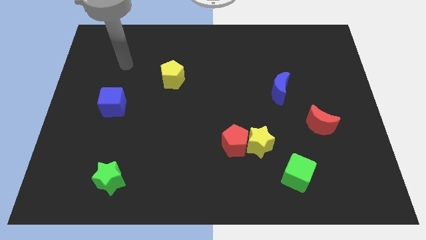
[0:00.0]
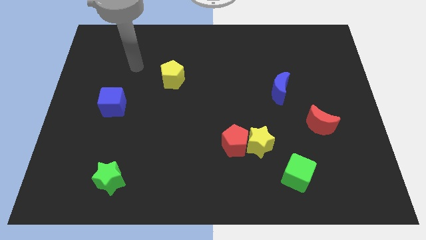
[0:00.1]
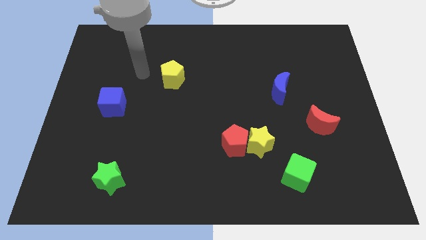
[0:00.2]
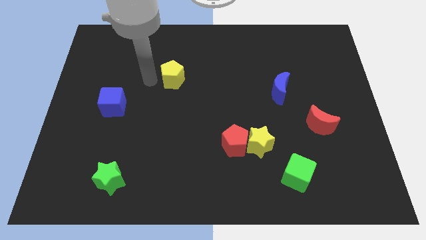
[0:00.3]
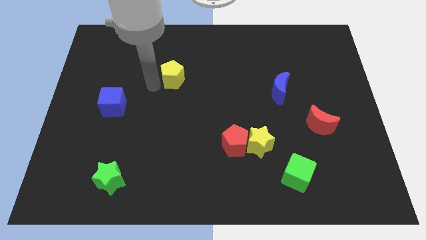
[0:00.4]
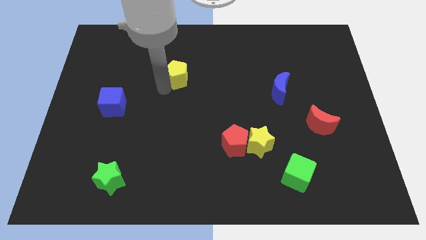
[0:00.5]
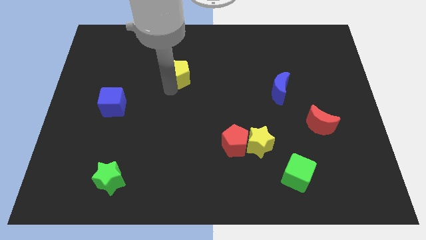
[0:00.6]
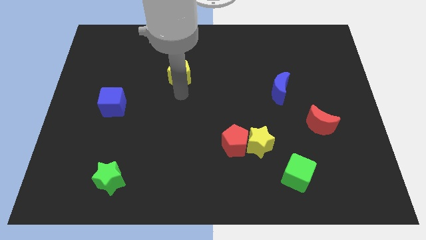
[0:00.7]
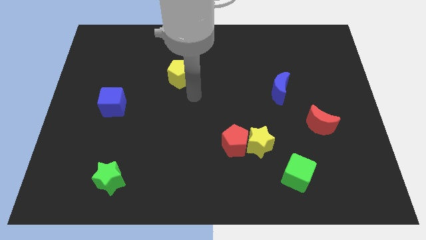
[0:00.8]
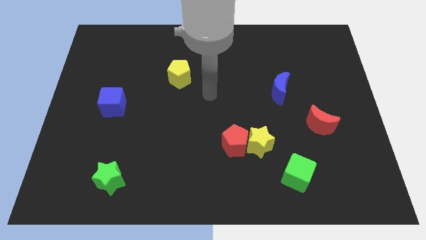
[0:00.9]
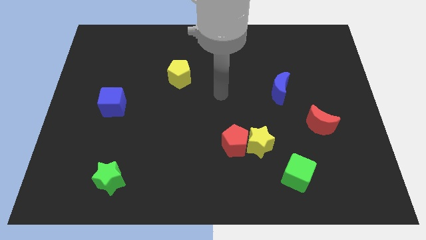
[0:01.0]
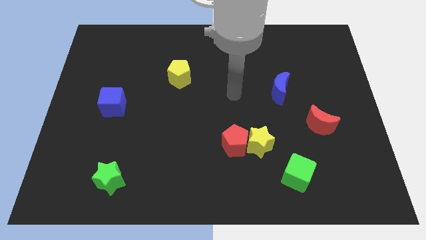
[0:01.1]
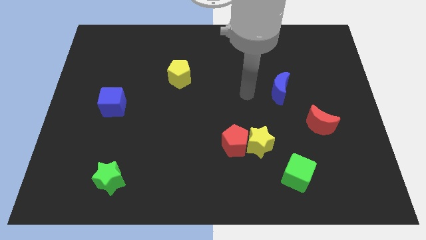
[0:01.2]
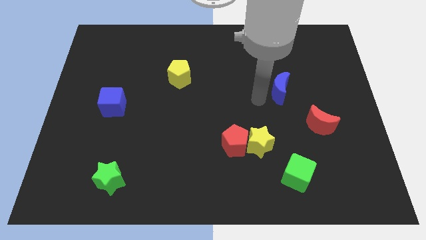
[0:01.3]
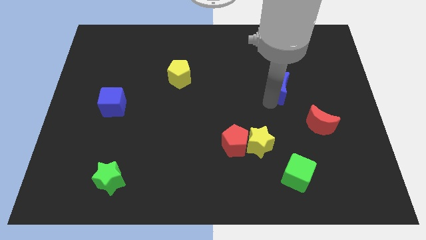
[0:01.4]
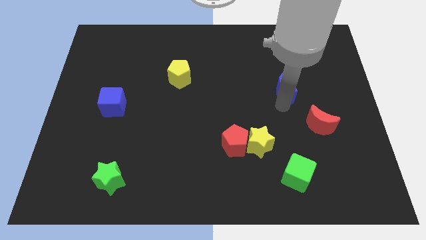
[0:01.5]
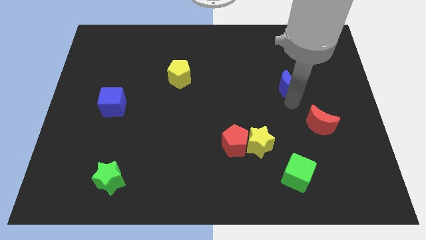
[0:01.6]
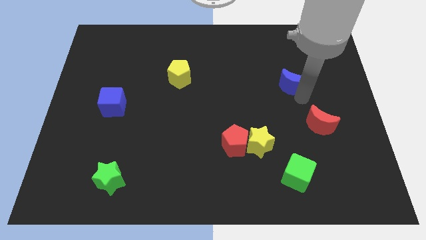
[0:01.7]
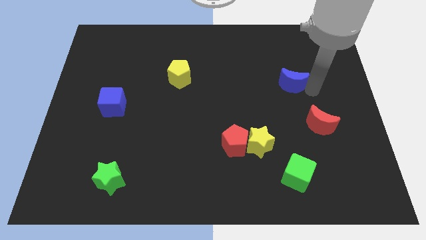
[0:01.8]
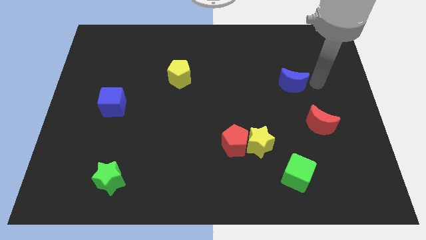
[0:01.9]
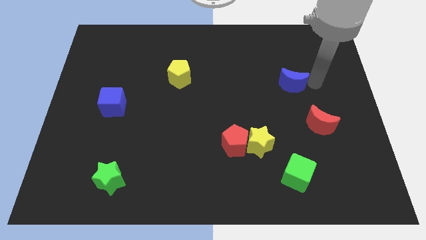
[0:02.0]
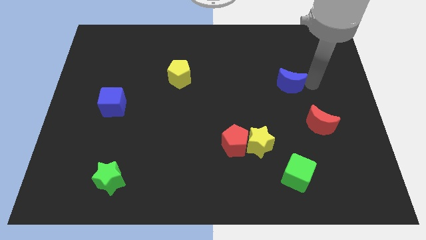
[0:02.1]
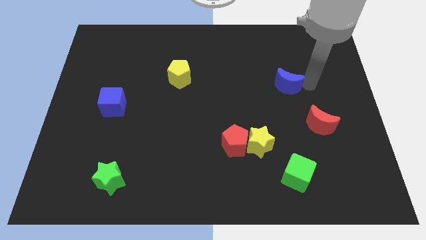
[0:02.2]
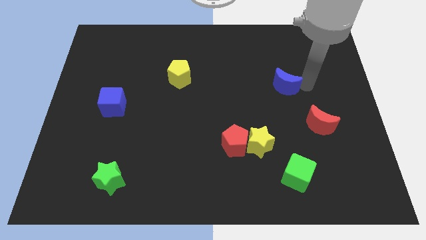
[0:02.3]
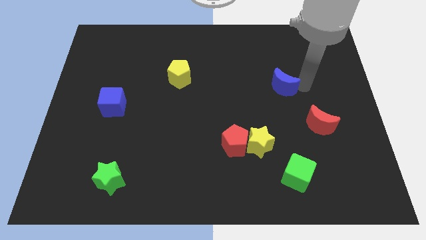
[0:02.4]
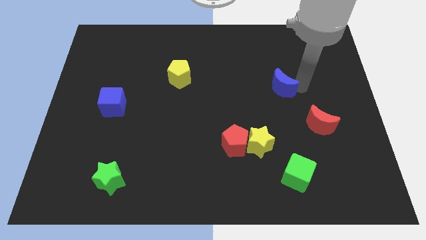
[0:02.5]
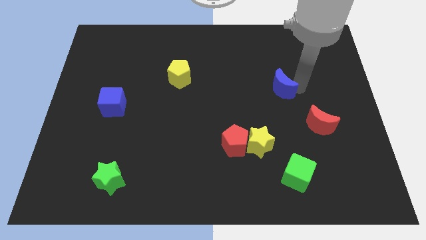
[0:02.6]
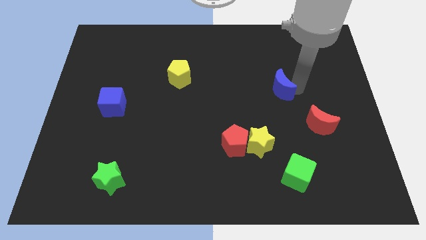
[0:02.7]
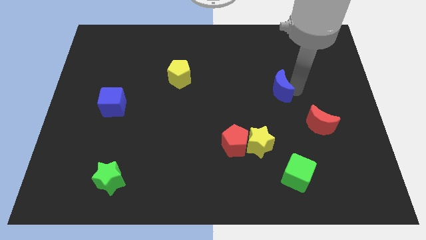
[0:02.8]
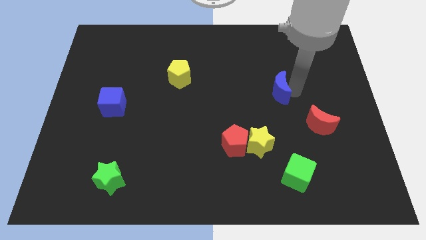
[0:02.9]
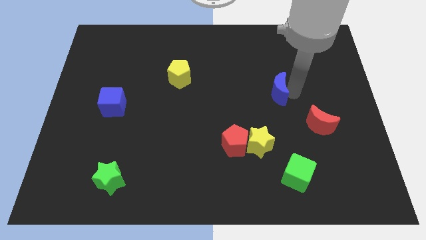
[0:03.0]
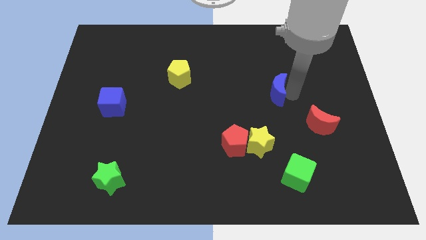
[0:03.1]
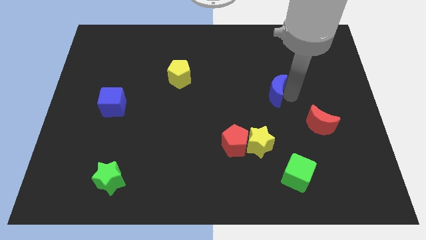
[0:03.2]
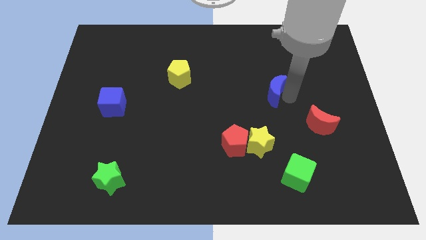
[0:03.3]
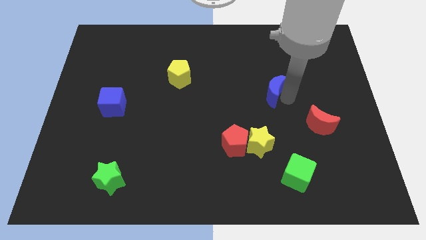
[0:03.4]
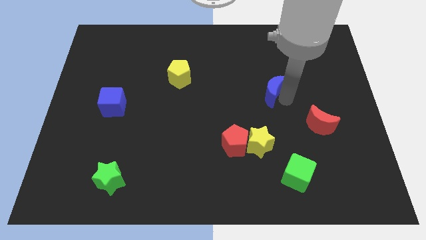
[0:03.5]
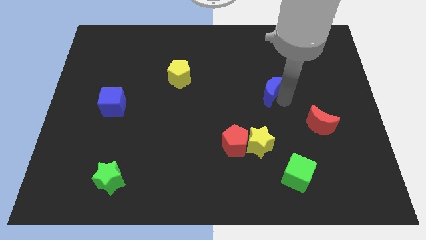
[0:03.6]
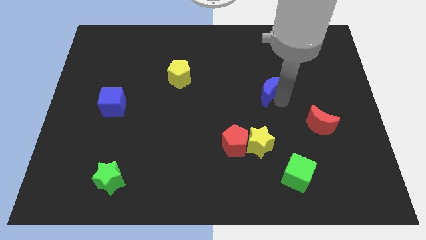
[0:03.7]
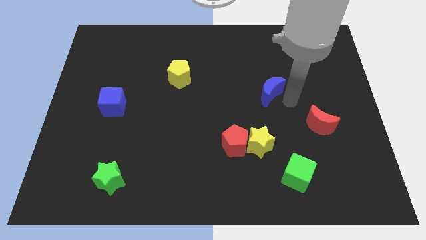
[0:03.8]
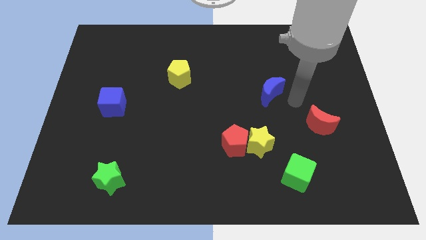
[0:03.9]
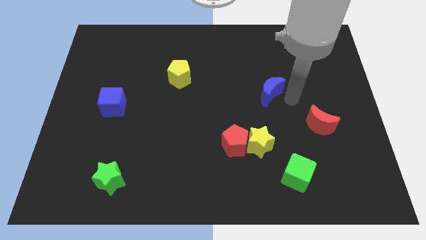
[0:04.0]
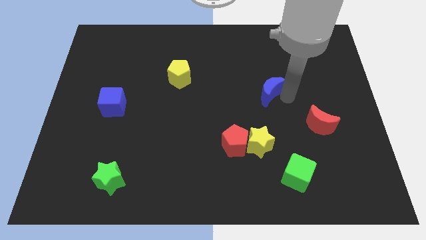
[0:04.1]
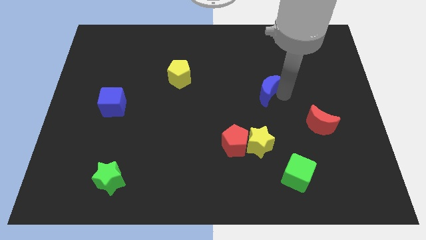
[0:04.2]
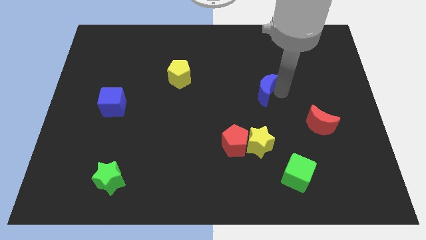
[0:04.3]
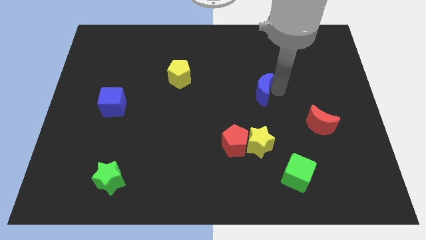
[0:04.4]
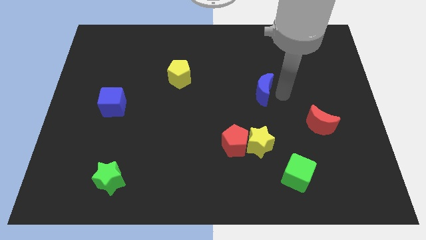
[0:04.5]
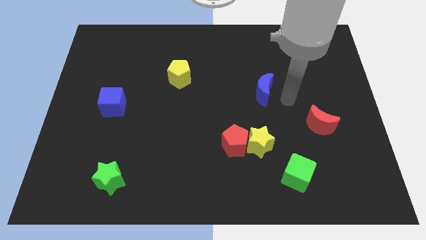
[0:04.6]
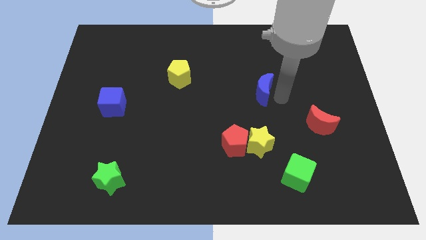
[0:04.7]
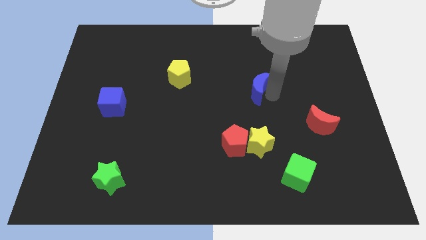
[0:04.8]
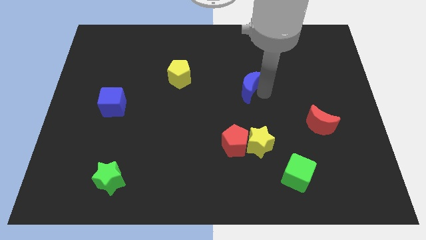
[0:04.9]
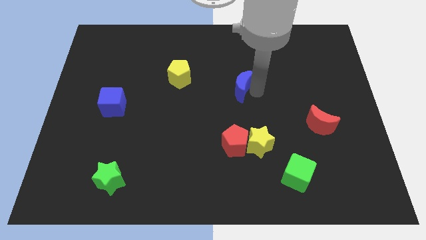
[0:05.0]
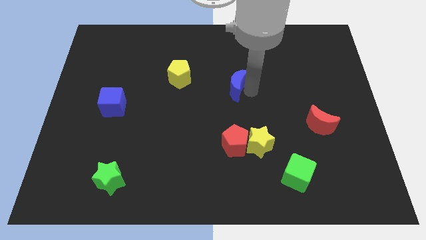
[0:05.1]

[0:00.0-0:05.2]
move the blue moon right of the yellow pentagon

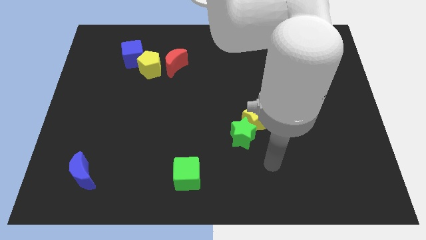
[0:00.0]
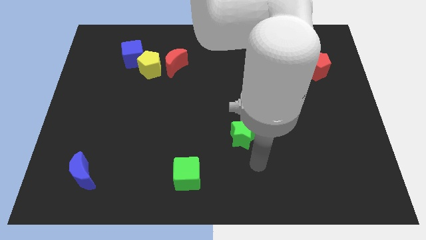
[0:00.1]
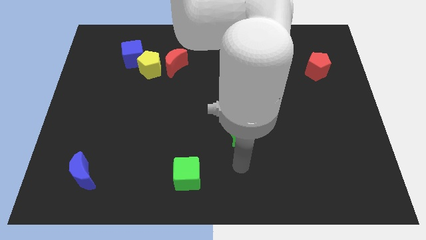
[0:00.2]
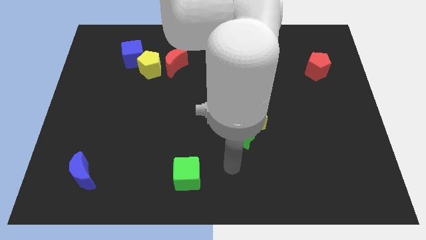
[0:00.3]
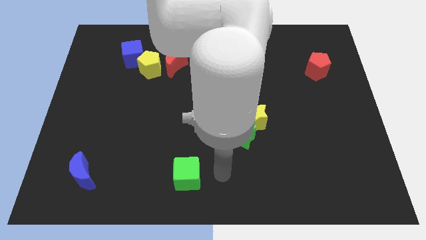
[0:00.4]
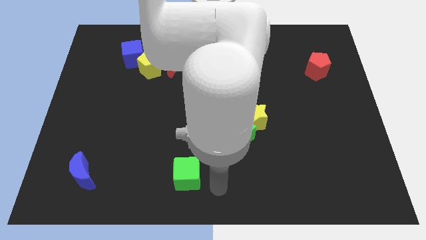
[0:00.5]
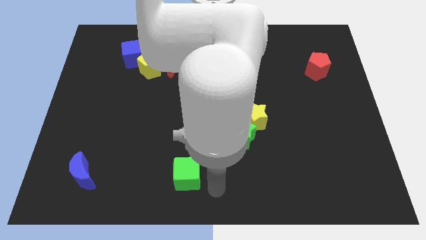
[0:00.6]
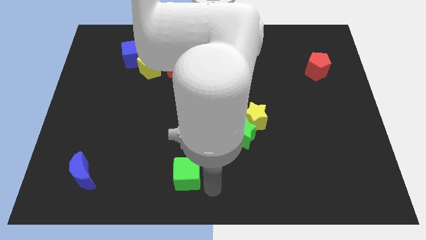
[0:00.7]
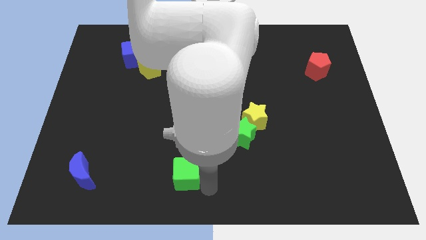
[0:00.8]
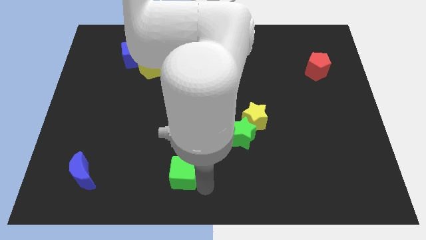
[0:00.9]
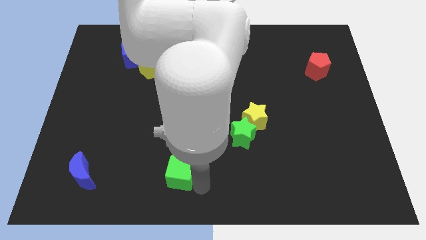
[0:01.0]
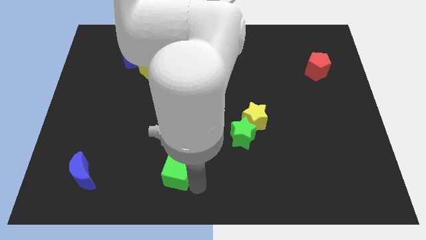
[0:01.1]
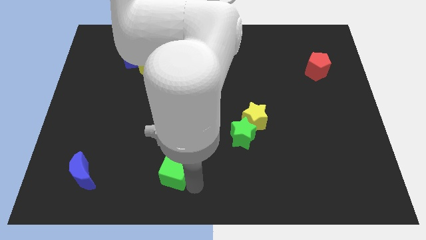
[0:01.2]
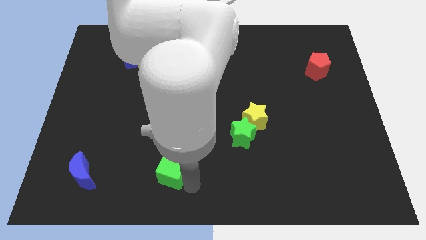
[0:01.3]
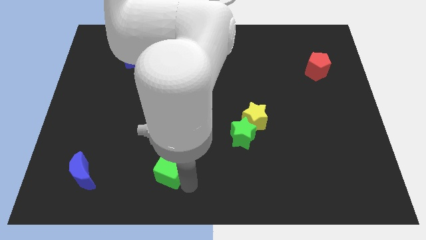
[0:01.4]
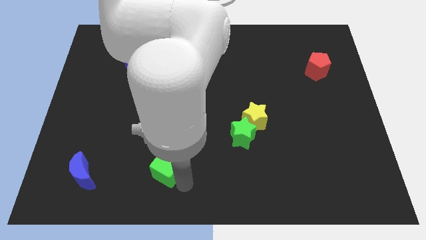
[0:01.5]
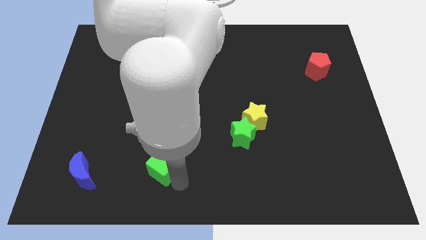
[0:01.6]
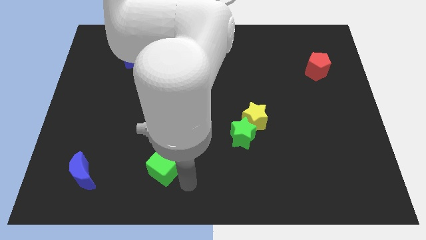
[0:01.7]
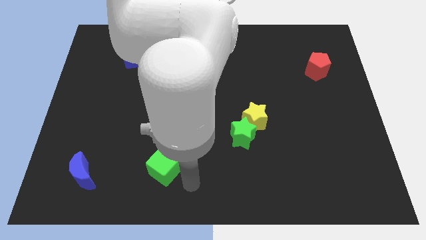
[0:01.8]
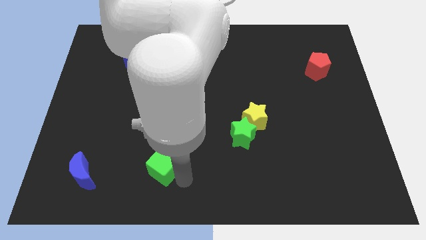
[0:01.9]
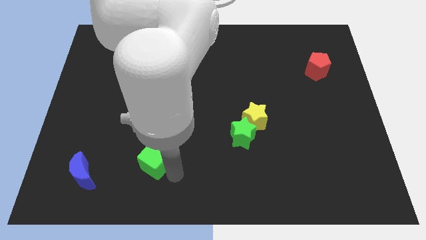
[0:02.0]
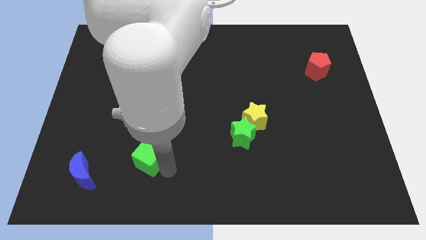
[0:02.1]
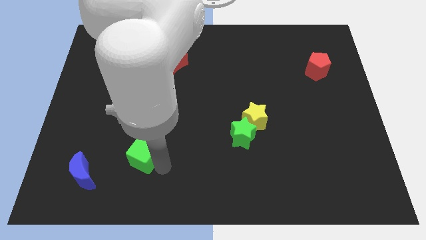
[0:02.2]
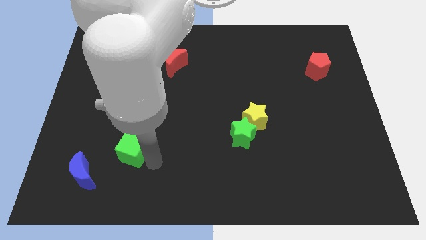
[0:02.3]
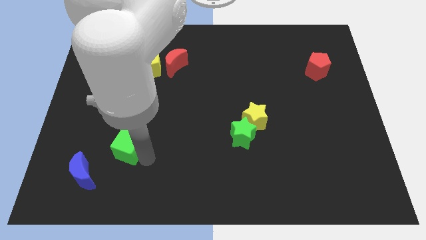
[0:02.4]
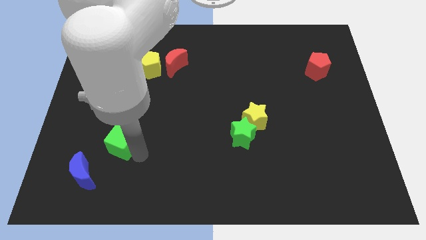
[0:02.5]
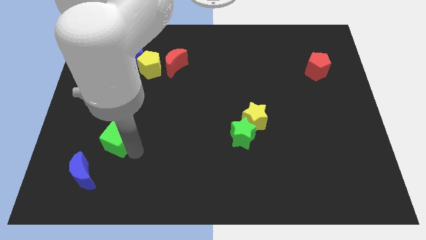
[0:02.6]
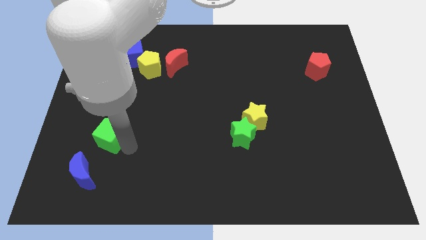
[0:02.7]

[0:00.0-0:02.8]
move the green cube to the top of the blue moon
